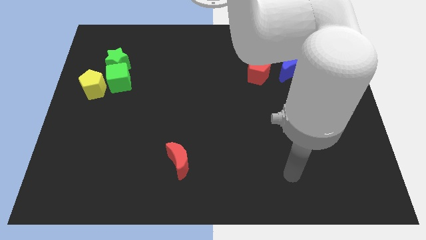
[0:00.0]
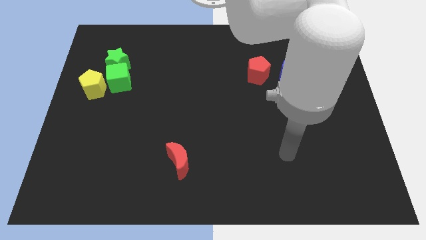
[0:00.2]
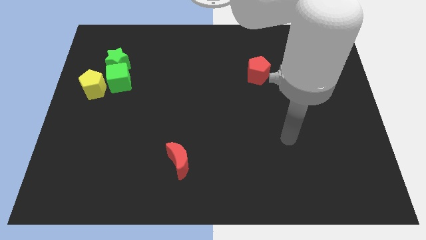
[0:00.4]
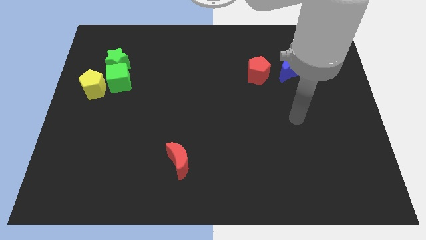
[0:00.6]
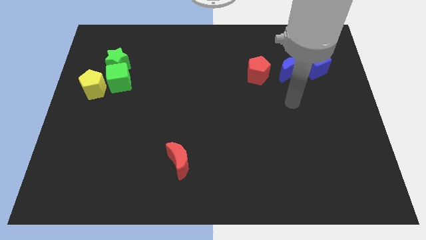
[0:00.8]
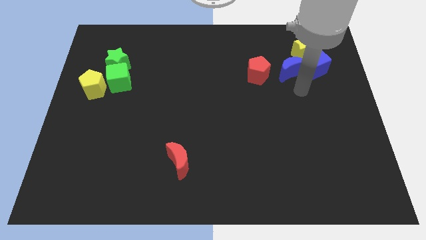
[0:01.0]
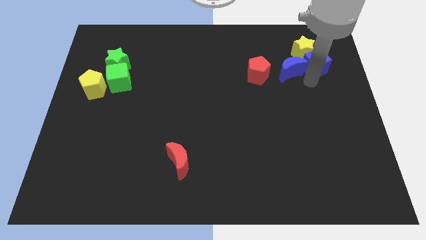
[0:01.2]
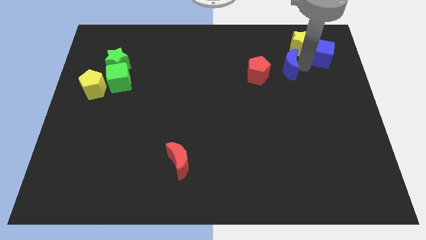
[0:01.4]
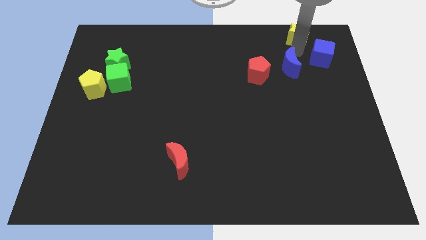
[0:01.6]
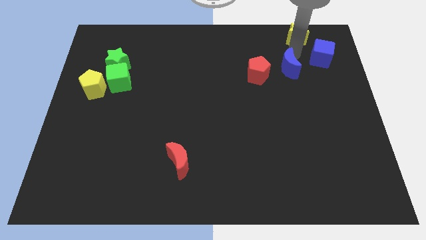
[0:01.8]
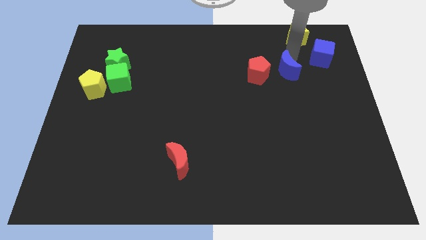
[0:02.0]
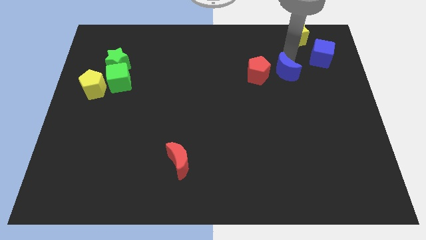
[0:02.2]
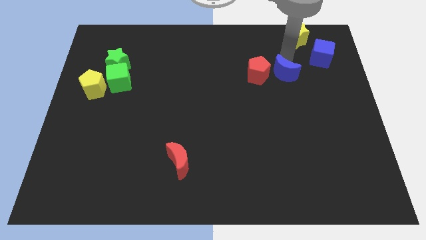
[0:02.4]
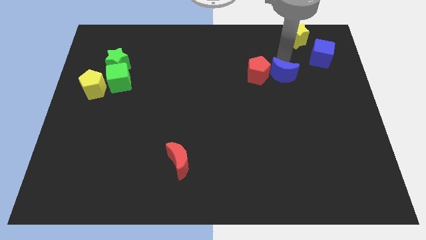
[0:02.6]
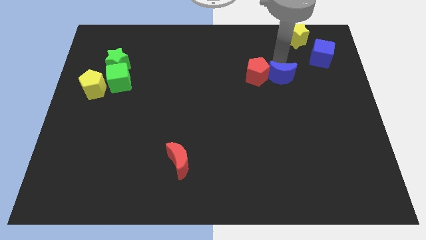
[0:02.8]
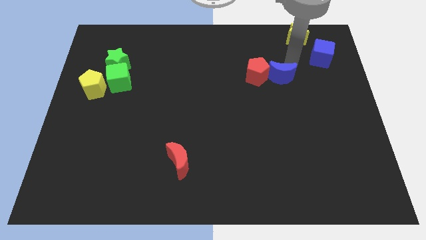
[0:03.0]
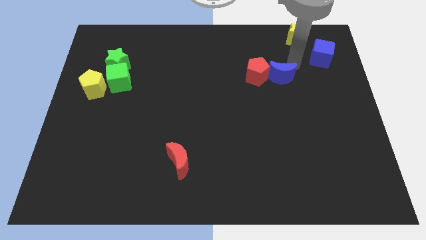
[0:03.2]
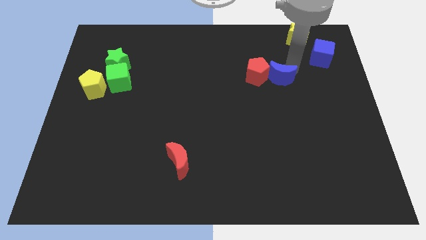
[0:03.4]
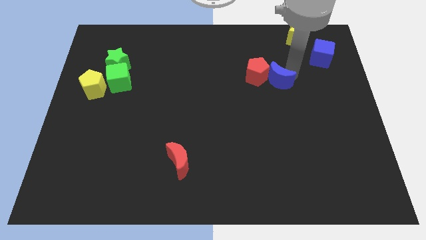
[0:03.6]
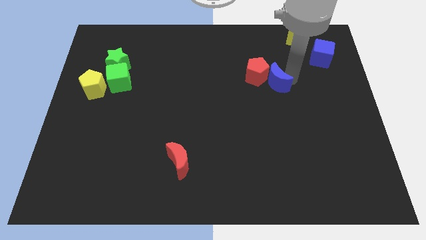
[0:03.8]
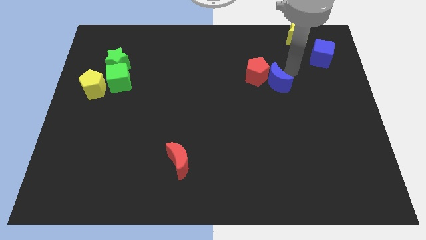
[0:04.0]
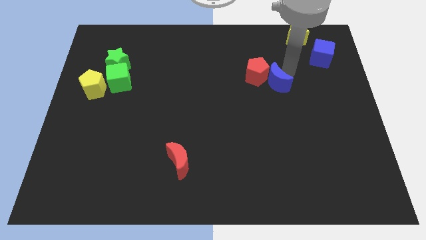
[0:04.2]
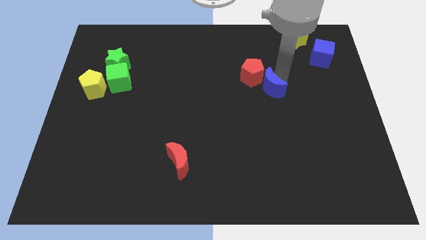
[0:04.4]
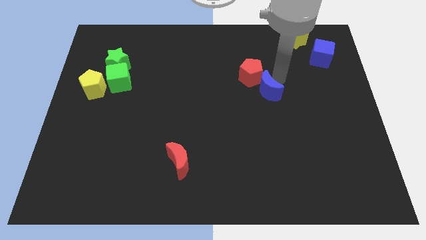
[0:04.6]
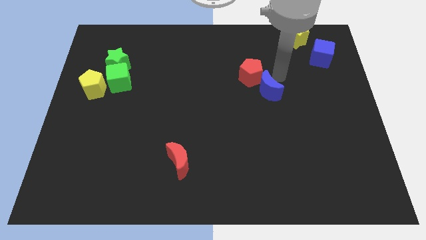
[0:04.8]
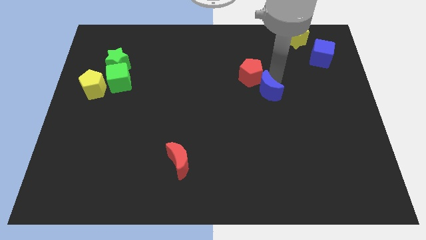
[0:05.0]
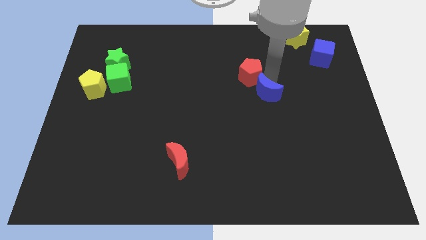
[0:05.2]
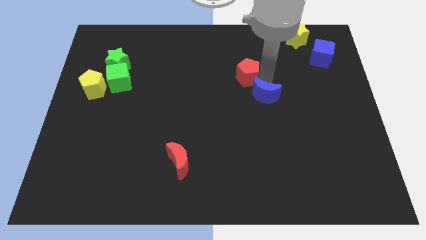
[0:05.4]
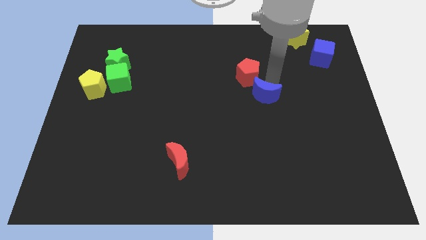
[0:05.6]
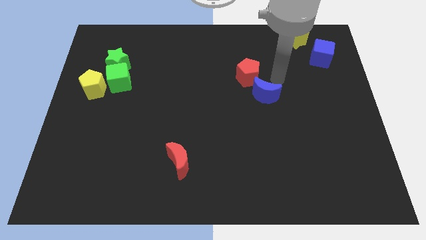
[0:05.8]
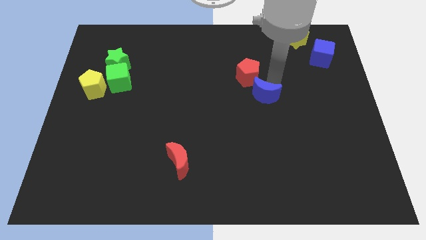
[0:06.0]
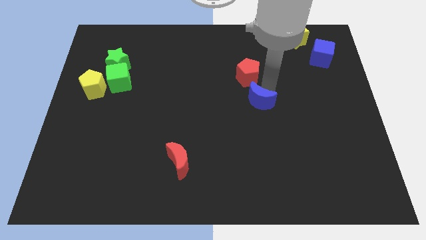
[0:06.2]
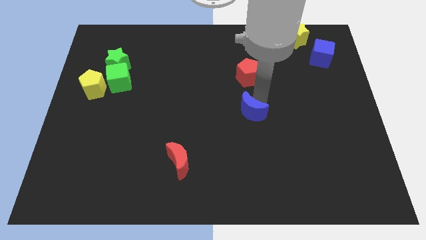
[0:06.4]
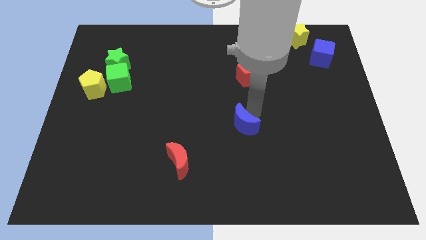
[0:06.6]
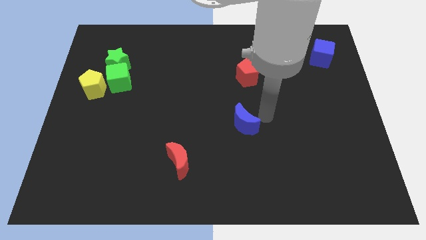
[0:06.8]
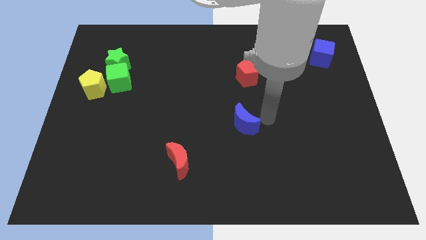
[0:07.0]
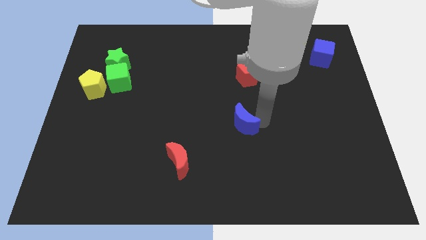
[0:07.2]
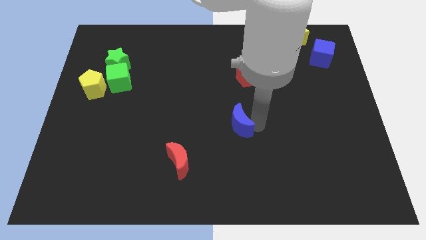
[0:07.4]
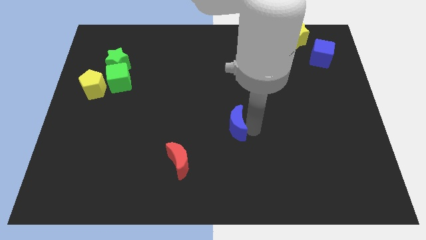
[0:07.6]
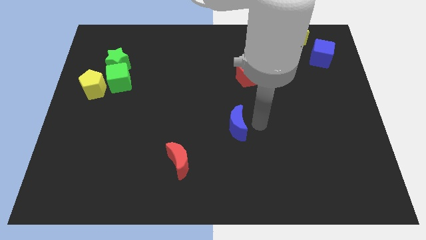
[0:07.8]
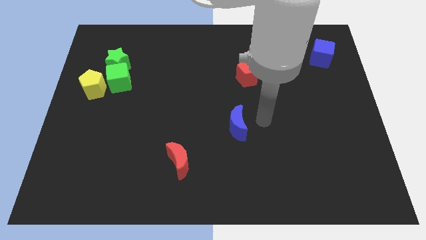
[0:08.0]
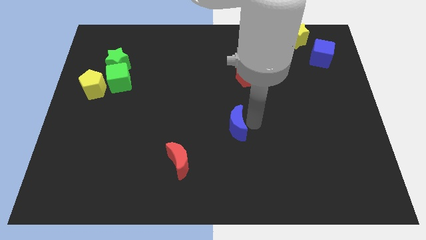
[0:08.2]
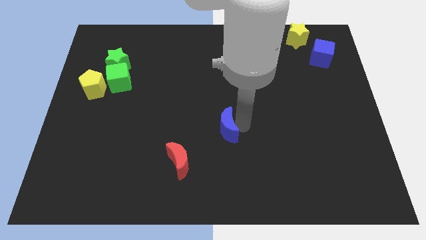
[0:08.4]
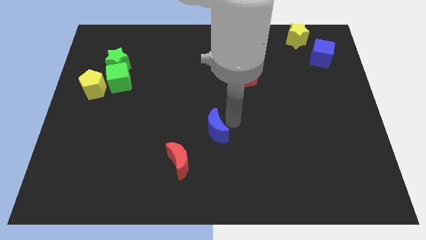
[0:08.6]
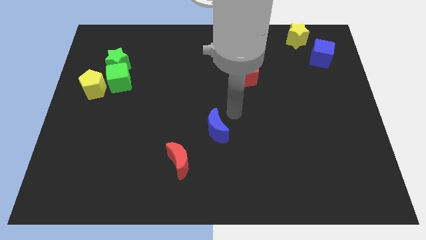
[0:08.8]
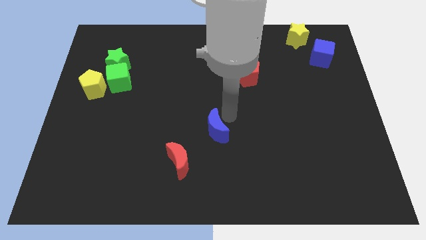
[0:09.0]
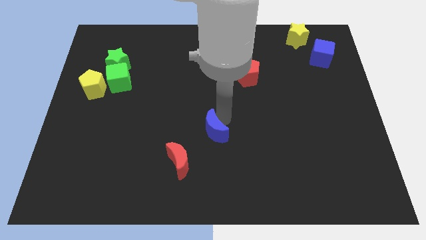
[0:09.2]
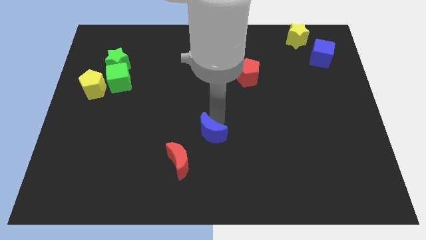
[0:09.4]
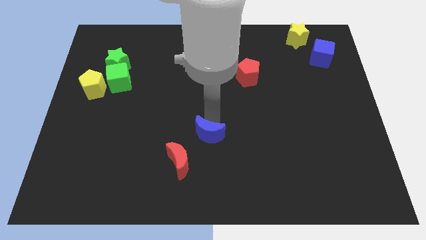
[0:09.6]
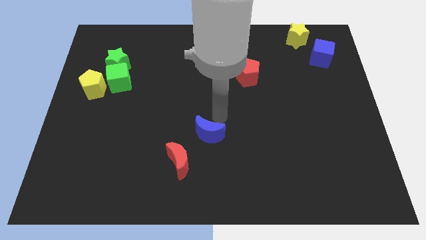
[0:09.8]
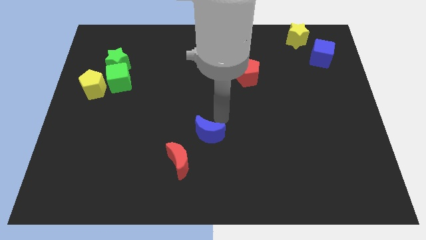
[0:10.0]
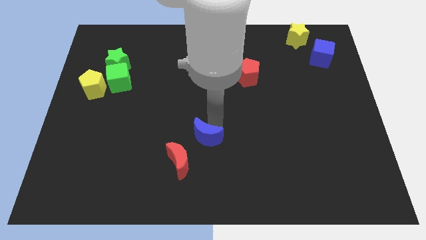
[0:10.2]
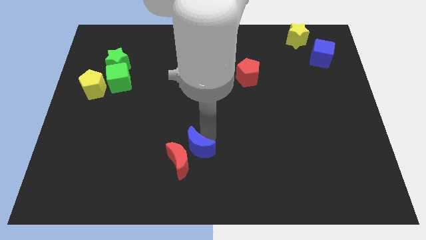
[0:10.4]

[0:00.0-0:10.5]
slide the blue moon close to the red moon

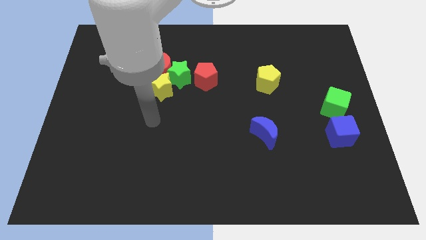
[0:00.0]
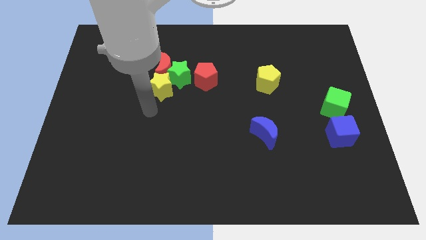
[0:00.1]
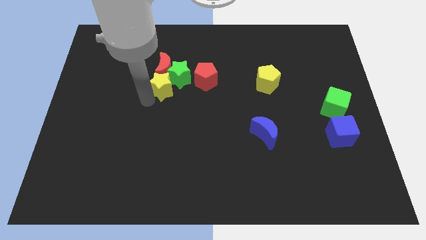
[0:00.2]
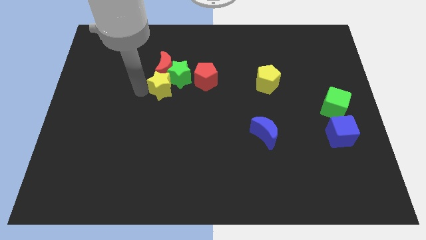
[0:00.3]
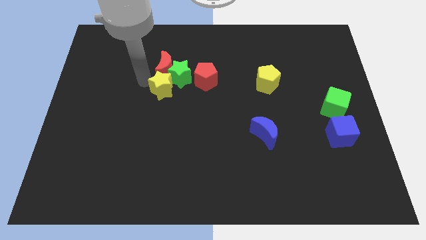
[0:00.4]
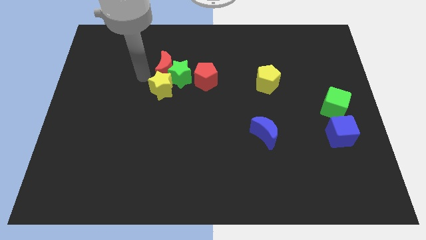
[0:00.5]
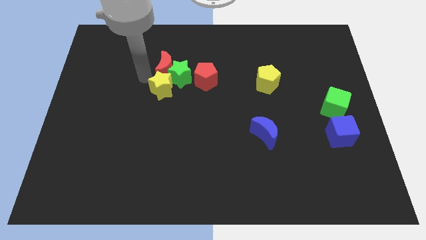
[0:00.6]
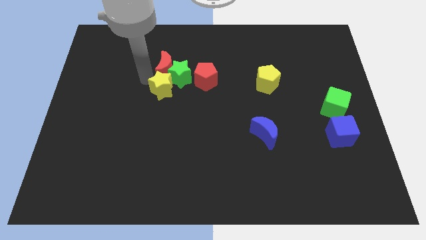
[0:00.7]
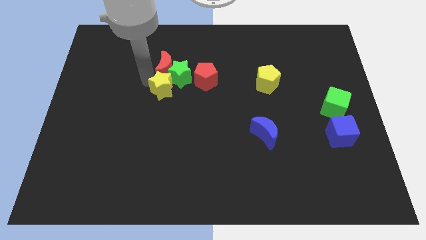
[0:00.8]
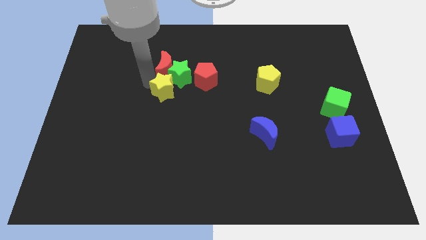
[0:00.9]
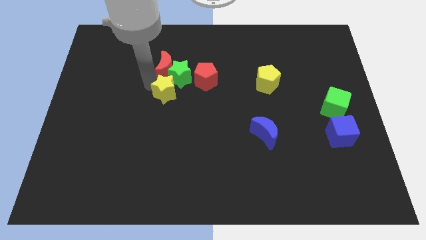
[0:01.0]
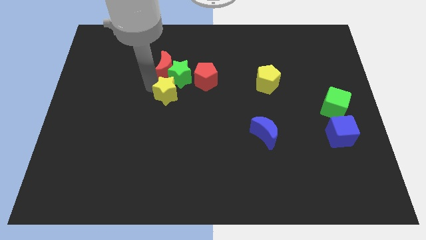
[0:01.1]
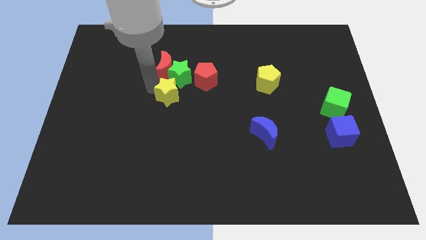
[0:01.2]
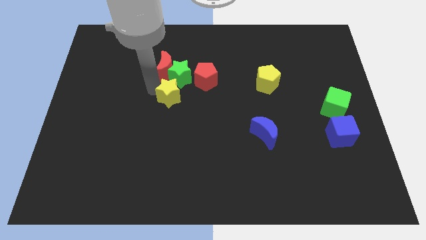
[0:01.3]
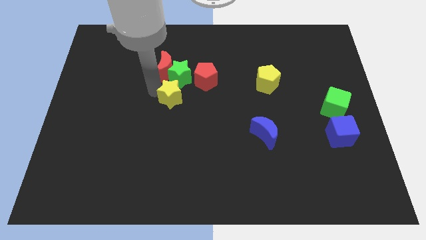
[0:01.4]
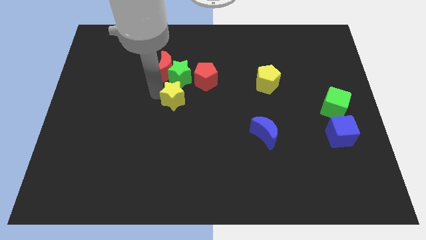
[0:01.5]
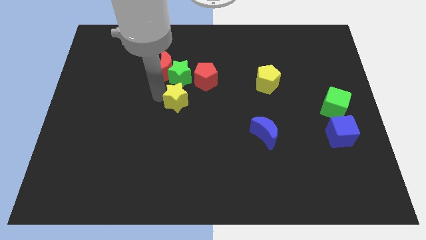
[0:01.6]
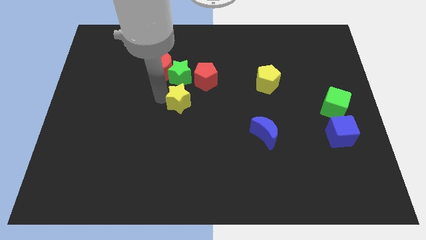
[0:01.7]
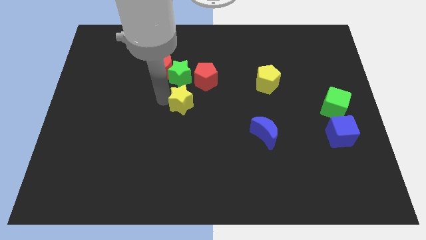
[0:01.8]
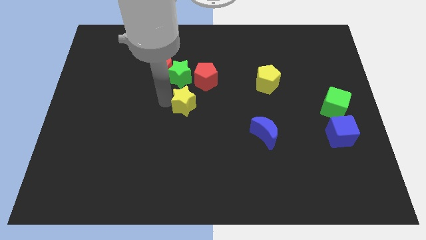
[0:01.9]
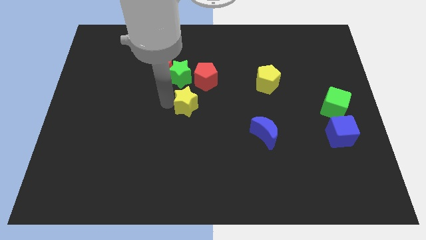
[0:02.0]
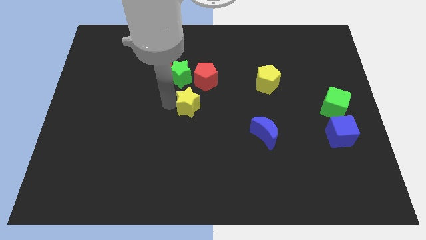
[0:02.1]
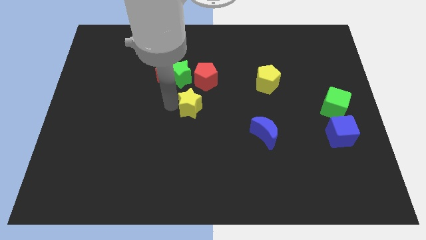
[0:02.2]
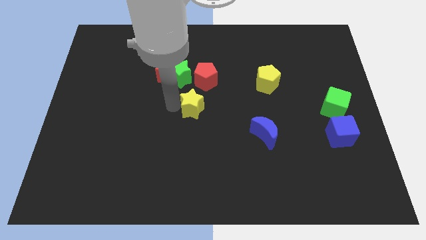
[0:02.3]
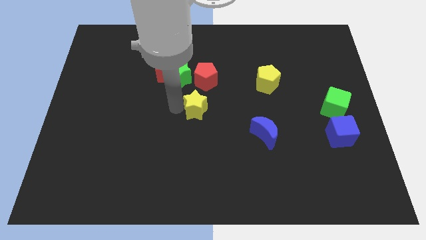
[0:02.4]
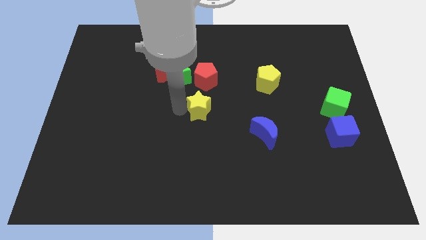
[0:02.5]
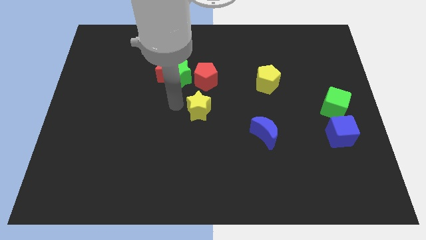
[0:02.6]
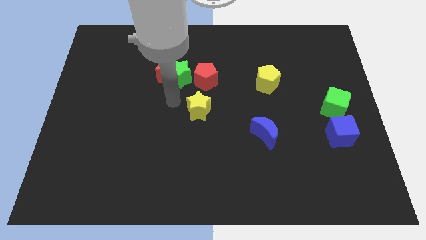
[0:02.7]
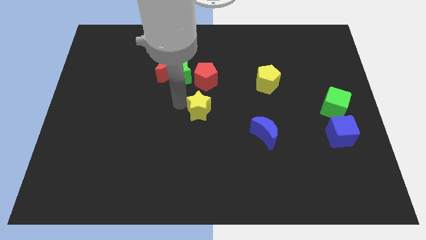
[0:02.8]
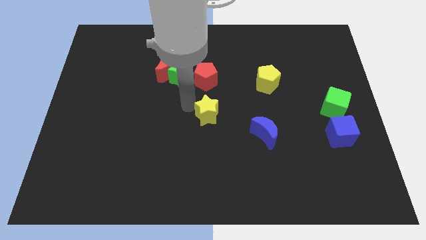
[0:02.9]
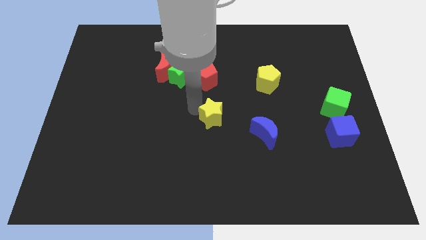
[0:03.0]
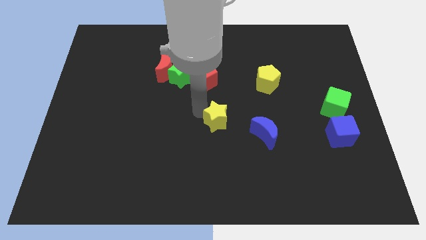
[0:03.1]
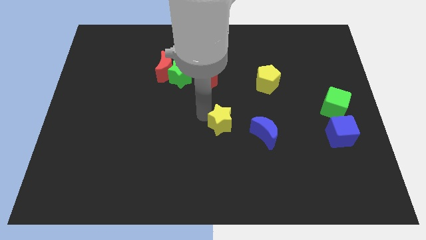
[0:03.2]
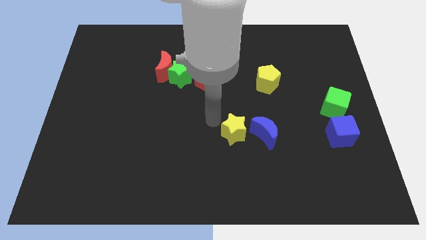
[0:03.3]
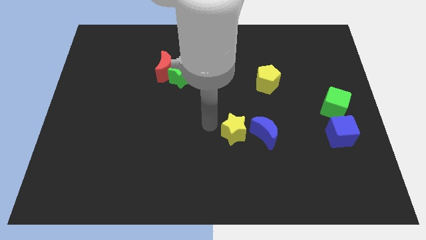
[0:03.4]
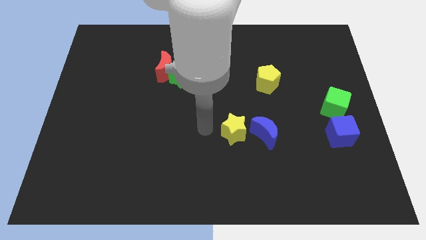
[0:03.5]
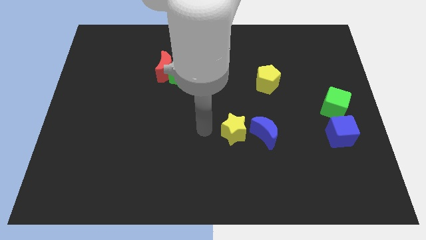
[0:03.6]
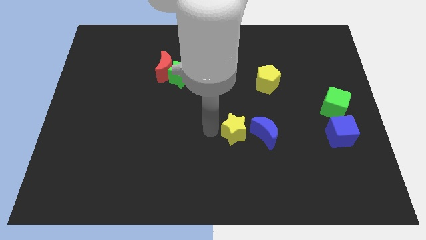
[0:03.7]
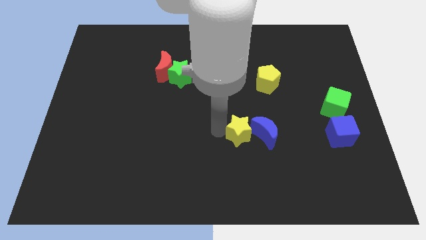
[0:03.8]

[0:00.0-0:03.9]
put the yellow star next to the blue moon
